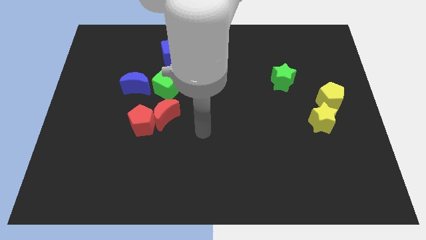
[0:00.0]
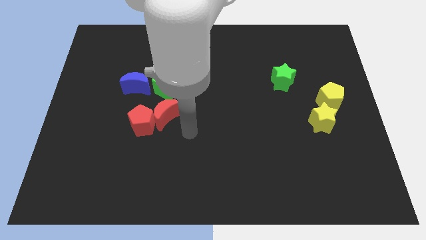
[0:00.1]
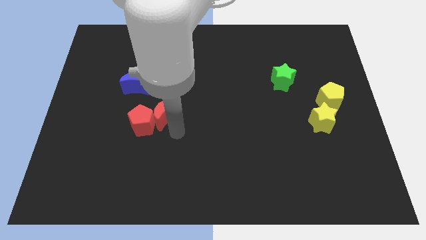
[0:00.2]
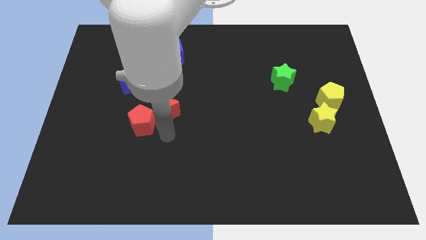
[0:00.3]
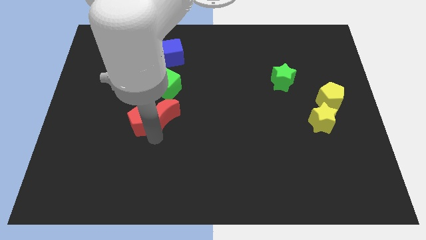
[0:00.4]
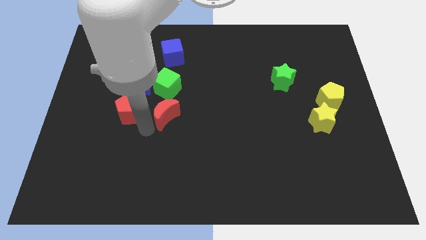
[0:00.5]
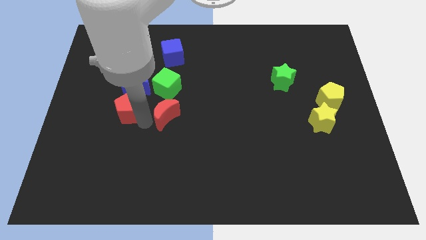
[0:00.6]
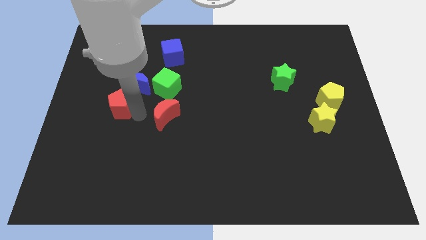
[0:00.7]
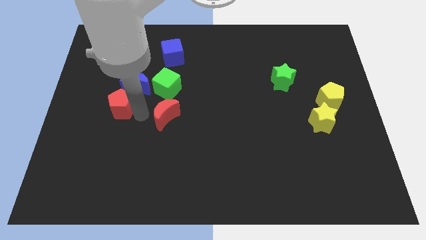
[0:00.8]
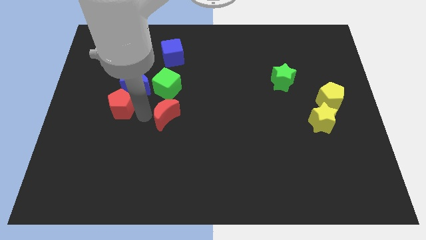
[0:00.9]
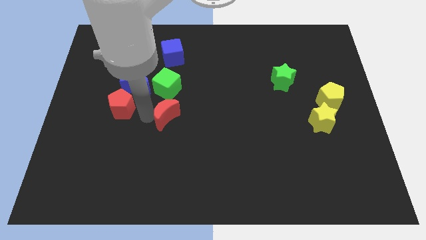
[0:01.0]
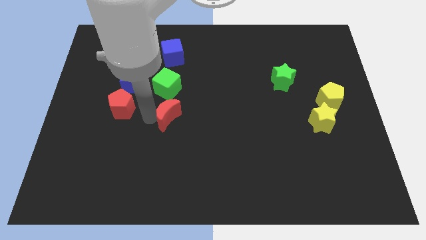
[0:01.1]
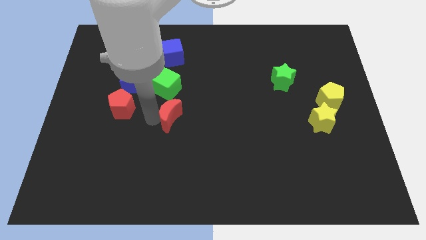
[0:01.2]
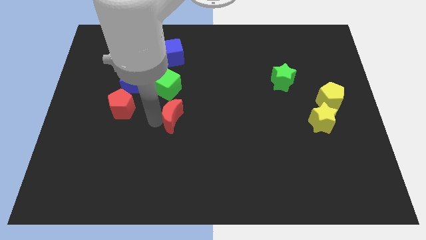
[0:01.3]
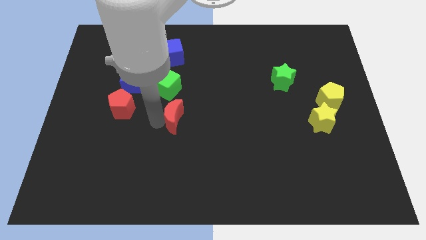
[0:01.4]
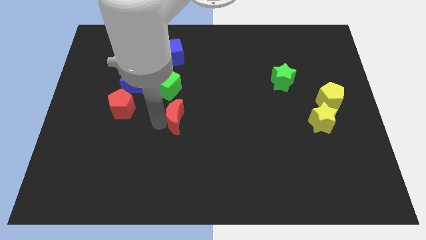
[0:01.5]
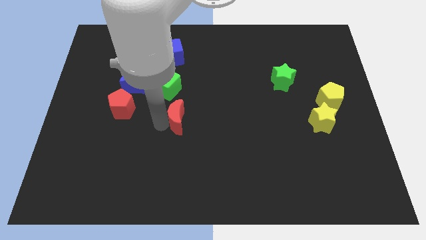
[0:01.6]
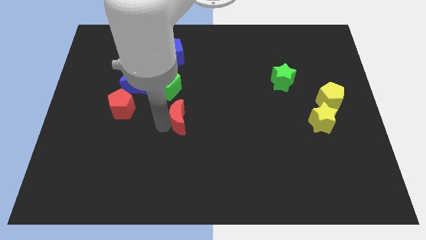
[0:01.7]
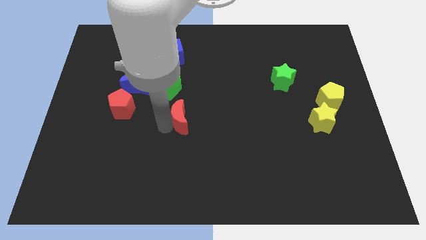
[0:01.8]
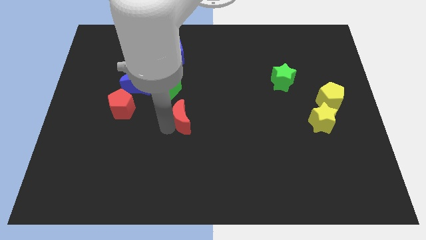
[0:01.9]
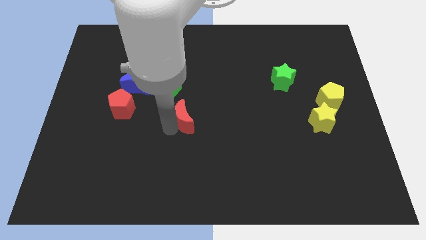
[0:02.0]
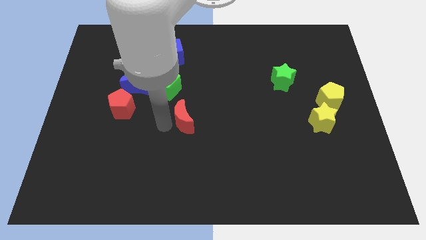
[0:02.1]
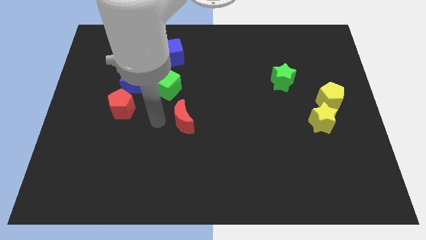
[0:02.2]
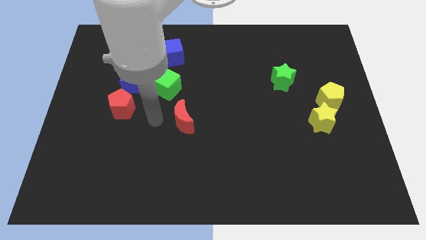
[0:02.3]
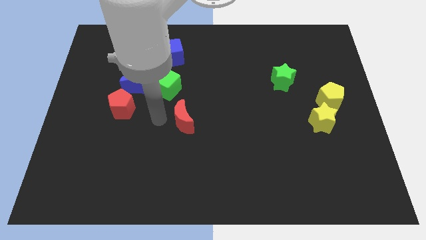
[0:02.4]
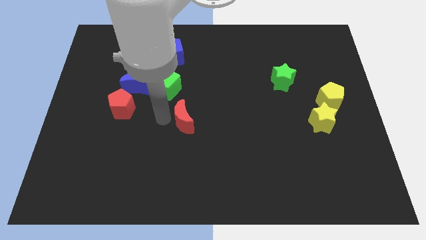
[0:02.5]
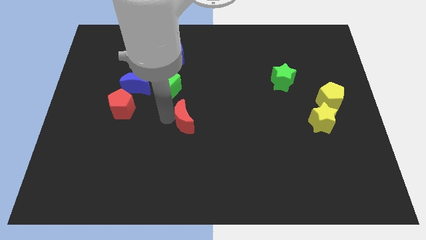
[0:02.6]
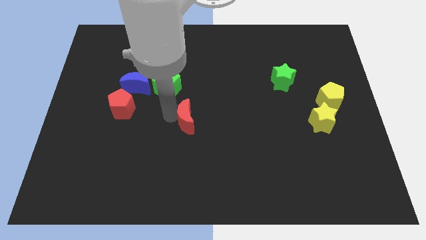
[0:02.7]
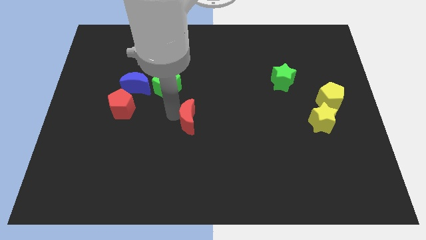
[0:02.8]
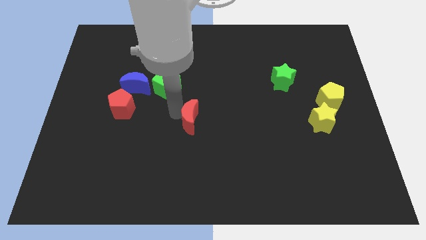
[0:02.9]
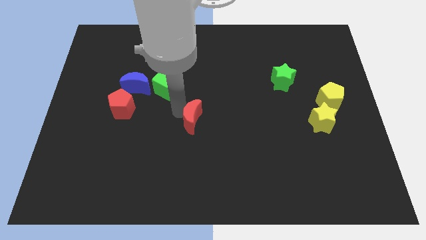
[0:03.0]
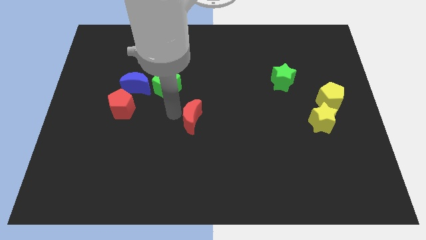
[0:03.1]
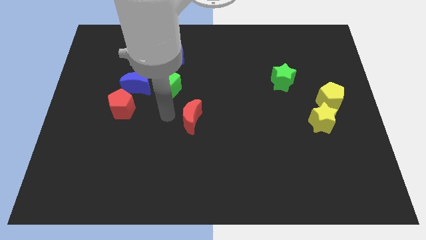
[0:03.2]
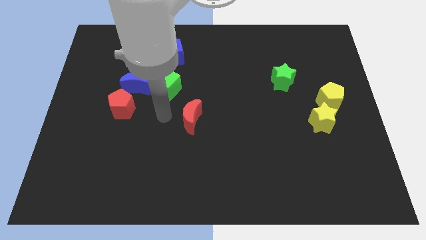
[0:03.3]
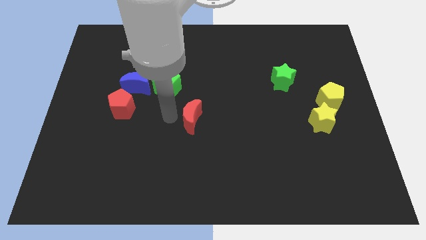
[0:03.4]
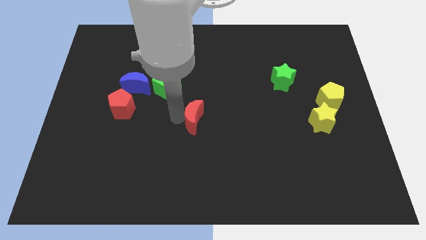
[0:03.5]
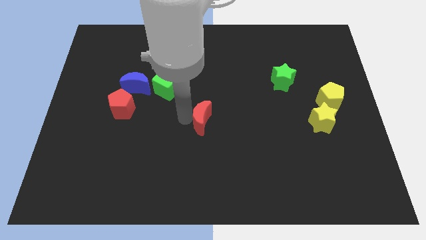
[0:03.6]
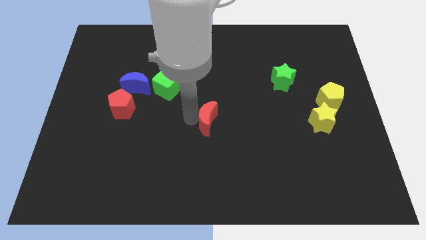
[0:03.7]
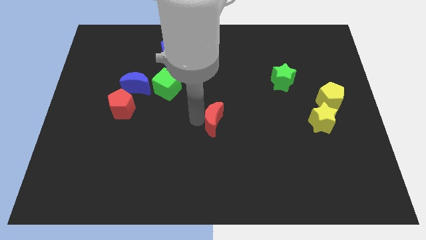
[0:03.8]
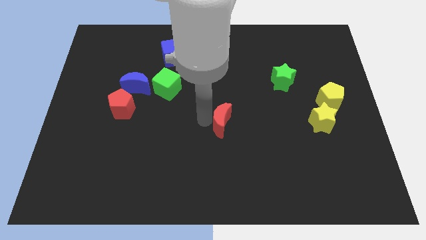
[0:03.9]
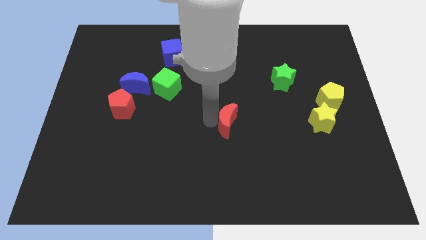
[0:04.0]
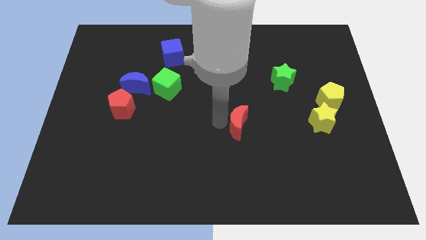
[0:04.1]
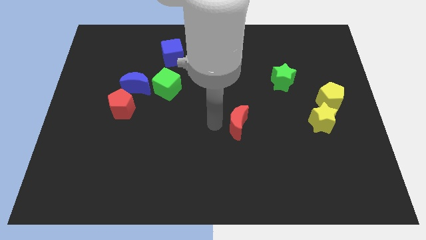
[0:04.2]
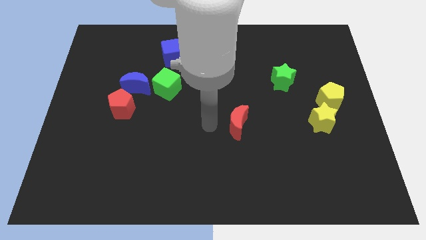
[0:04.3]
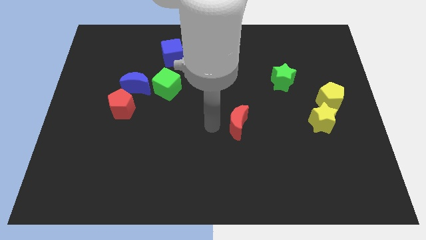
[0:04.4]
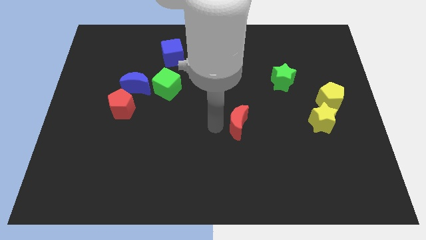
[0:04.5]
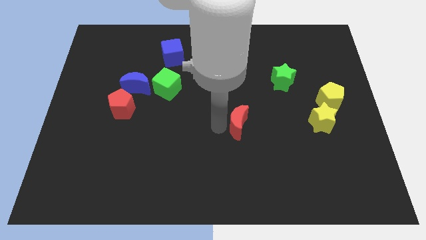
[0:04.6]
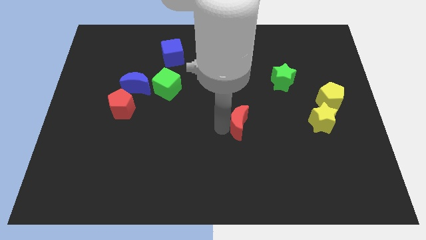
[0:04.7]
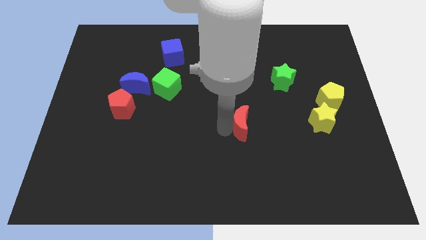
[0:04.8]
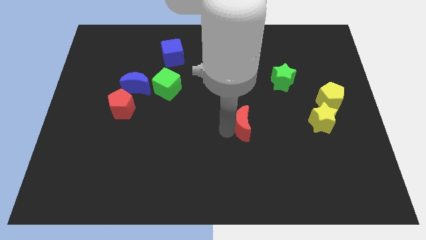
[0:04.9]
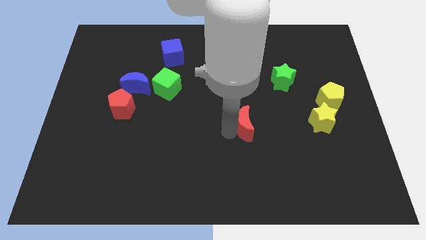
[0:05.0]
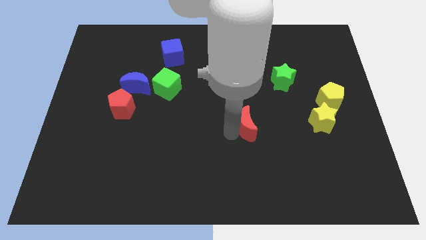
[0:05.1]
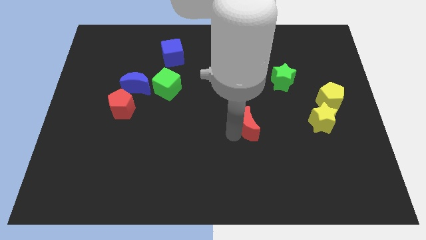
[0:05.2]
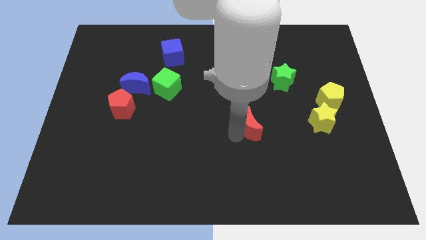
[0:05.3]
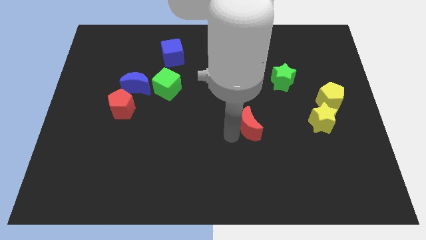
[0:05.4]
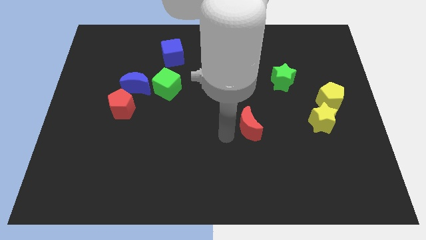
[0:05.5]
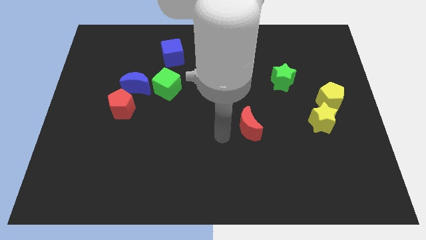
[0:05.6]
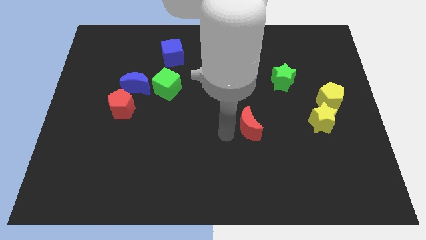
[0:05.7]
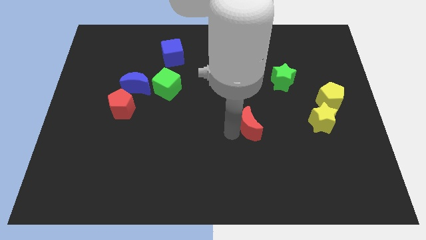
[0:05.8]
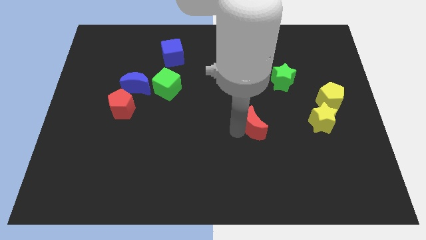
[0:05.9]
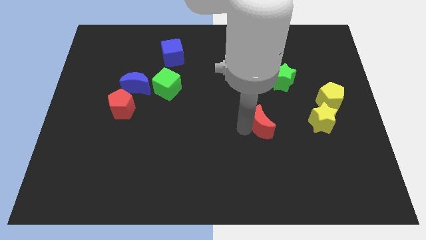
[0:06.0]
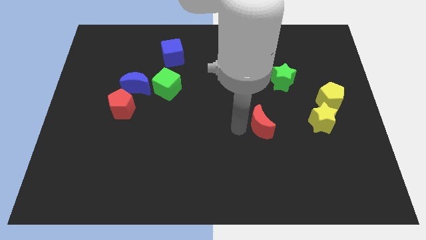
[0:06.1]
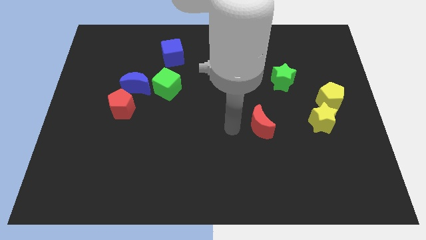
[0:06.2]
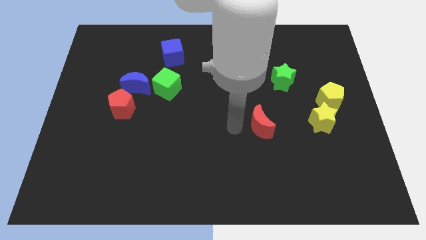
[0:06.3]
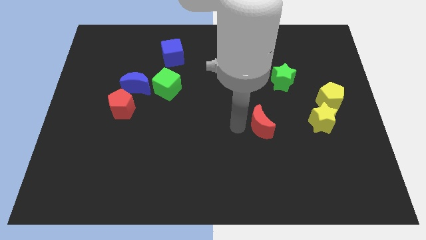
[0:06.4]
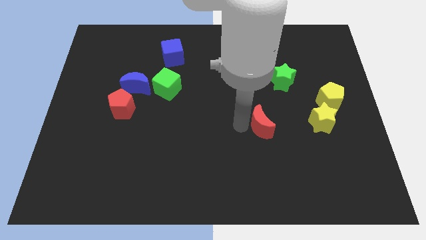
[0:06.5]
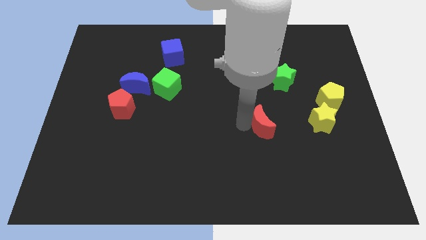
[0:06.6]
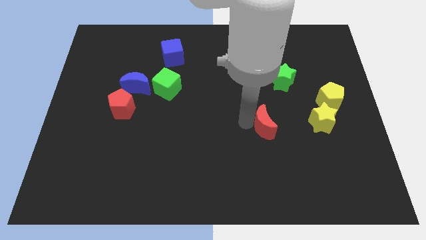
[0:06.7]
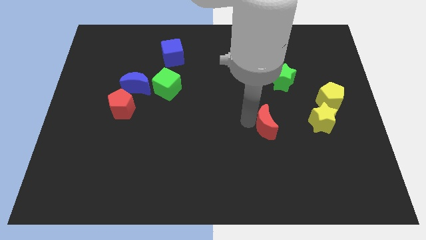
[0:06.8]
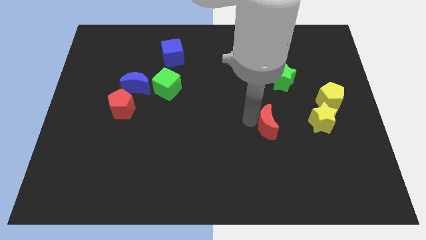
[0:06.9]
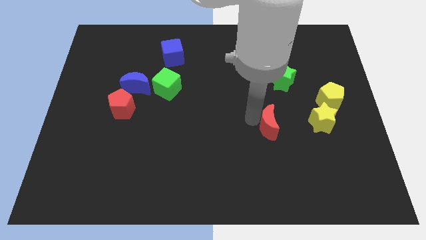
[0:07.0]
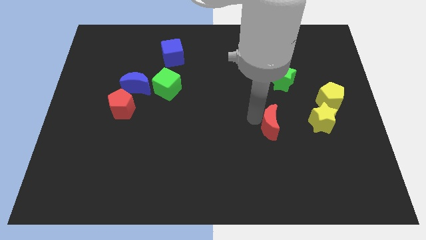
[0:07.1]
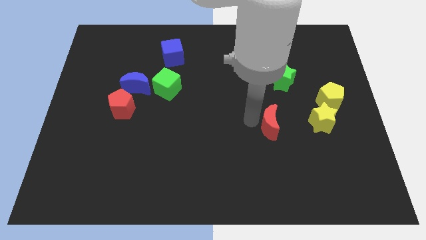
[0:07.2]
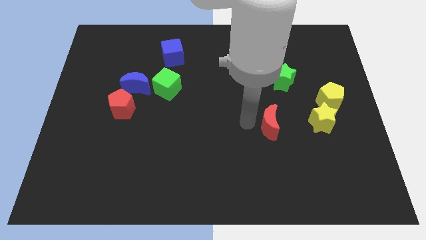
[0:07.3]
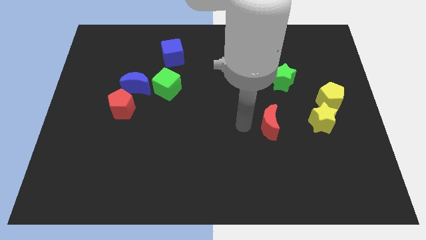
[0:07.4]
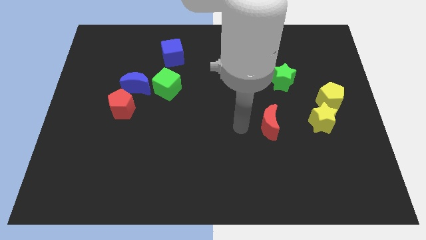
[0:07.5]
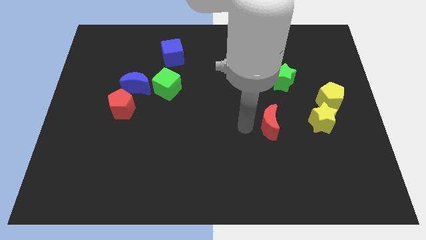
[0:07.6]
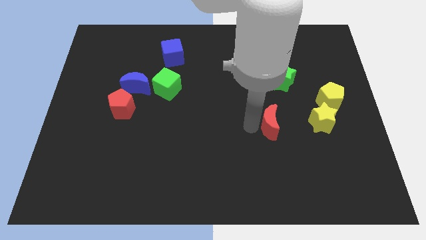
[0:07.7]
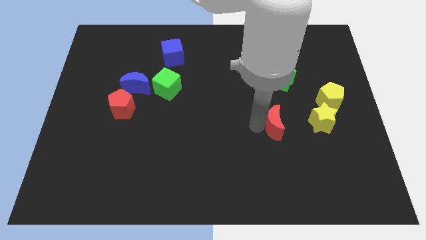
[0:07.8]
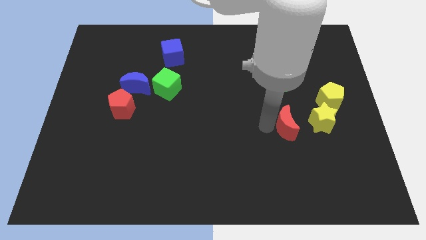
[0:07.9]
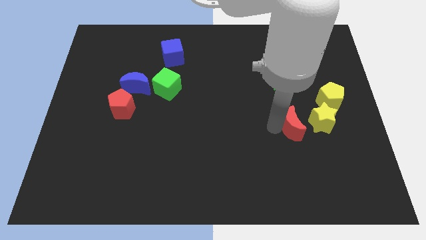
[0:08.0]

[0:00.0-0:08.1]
put the red moon to the bottom left side of the yellow pentagon
